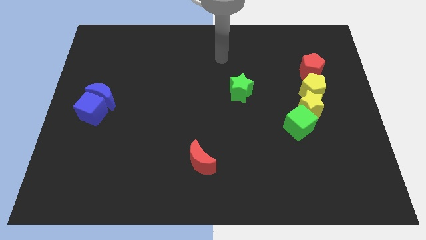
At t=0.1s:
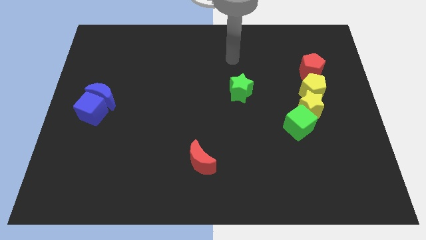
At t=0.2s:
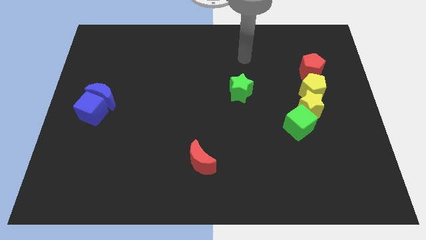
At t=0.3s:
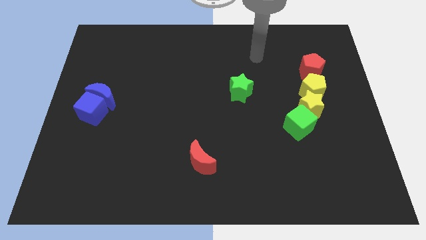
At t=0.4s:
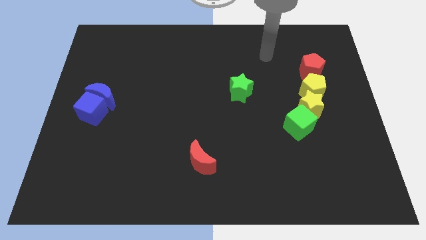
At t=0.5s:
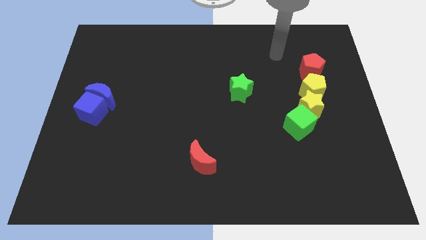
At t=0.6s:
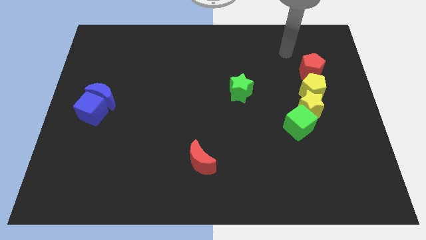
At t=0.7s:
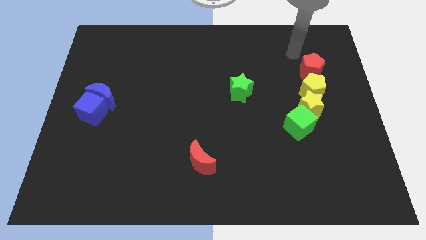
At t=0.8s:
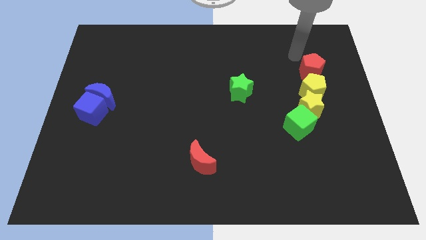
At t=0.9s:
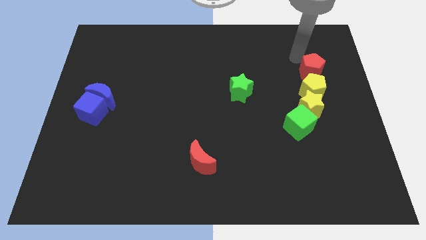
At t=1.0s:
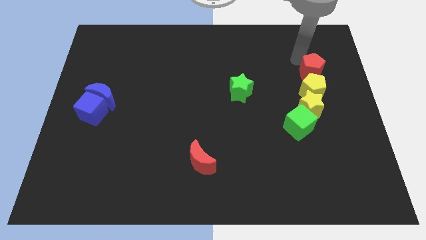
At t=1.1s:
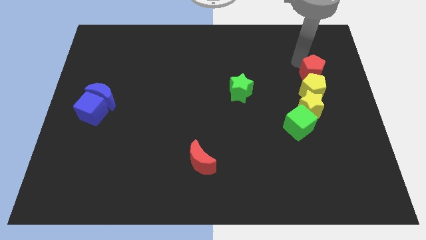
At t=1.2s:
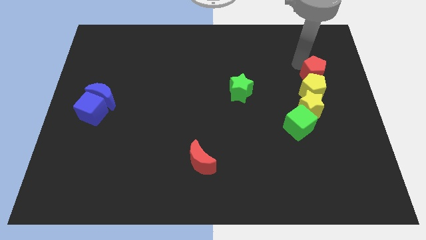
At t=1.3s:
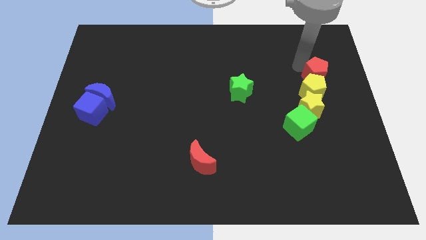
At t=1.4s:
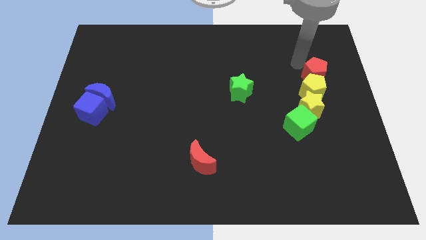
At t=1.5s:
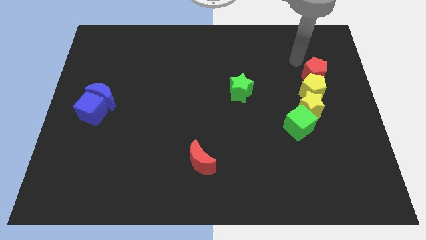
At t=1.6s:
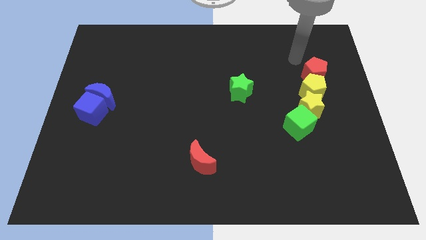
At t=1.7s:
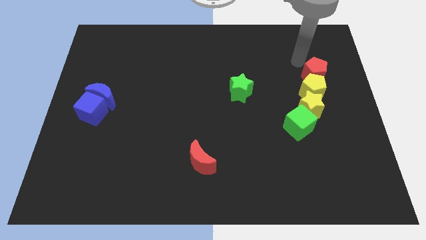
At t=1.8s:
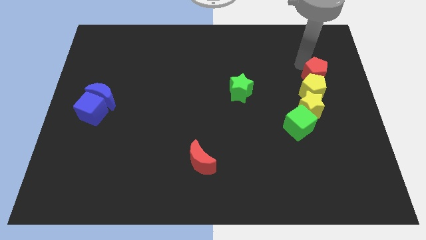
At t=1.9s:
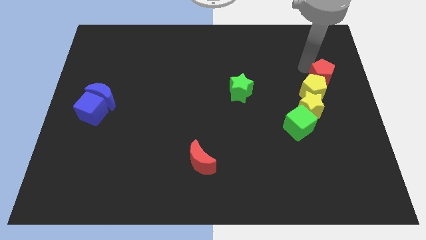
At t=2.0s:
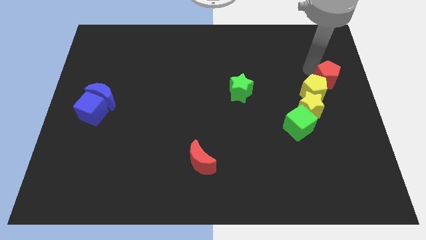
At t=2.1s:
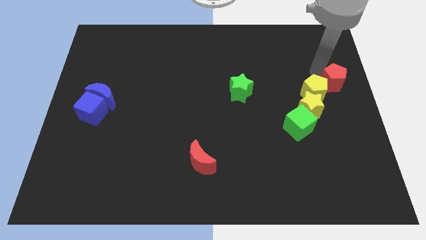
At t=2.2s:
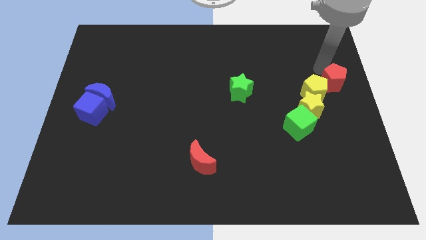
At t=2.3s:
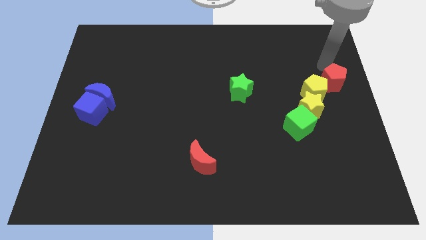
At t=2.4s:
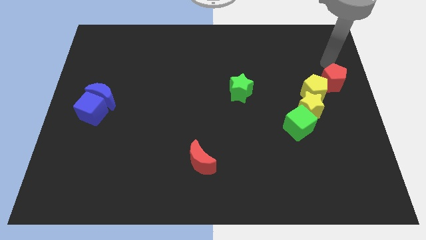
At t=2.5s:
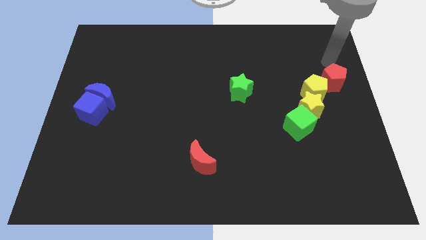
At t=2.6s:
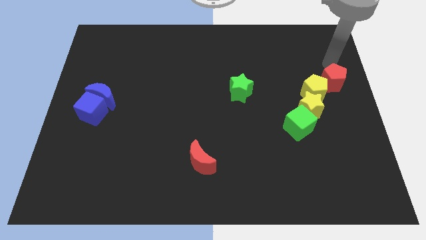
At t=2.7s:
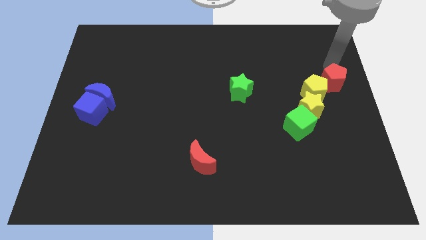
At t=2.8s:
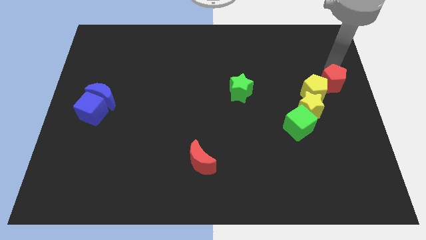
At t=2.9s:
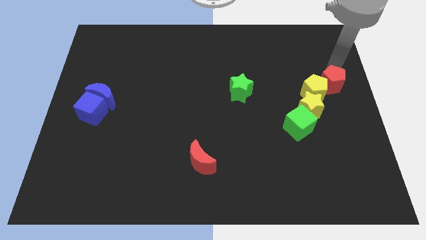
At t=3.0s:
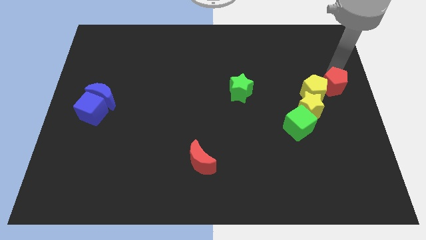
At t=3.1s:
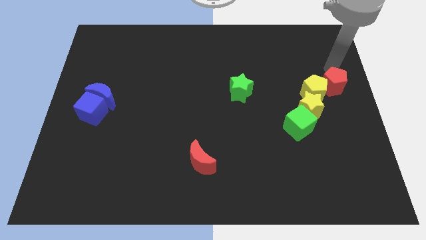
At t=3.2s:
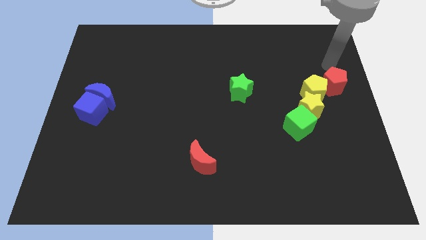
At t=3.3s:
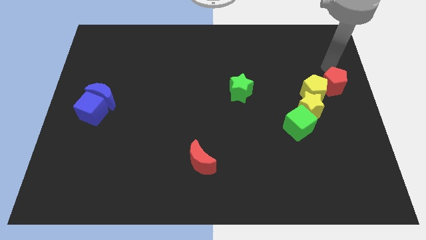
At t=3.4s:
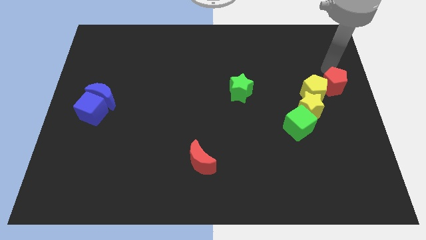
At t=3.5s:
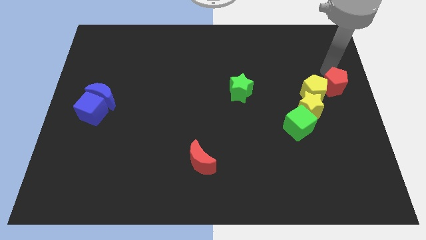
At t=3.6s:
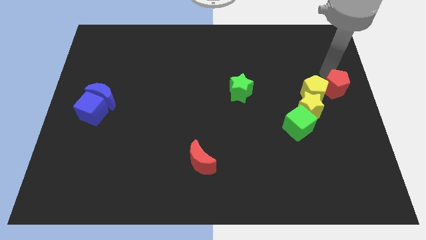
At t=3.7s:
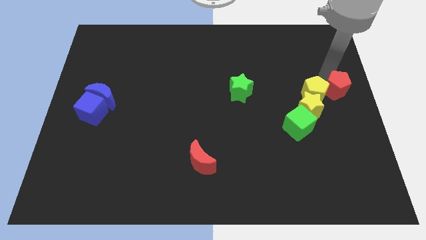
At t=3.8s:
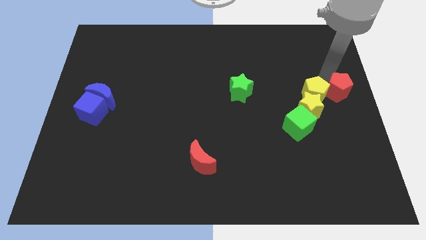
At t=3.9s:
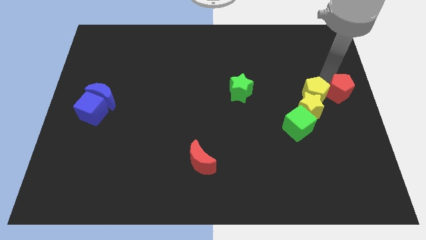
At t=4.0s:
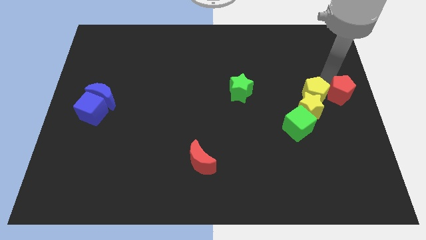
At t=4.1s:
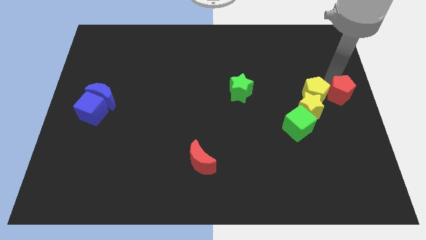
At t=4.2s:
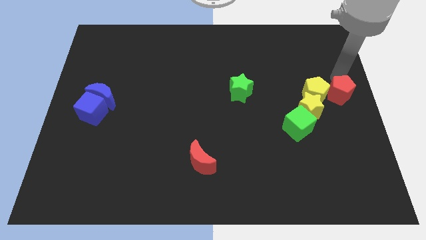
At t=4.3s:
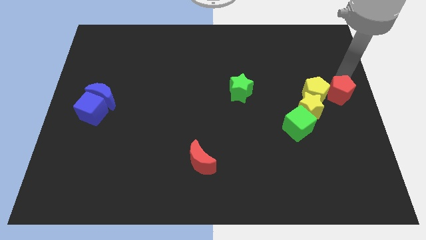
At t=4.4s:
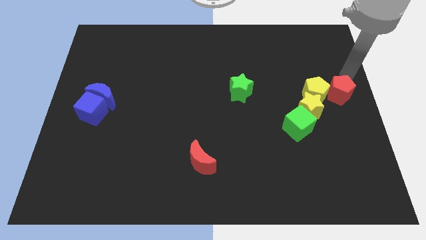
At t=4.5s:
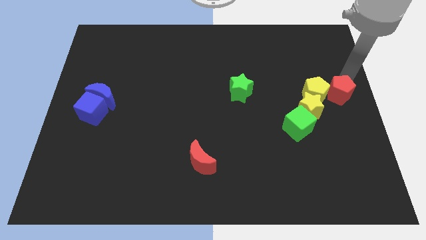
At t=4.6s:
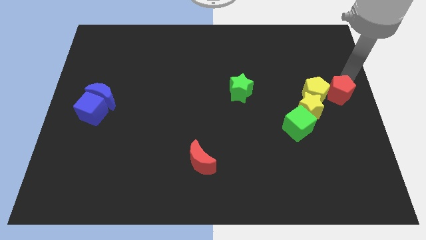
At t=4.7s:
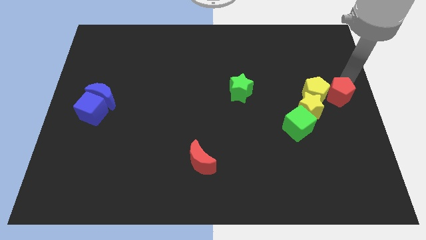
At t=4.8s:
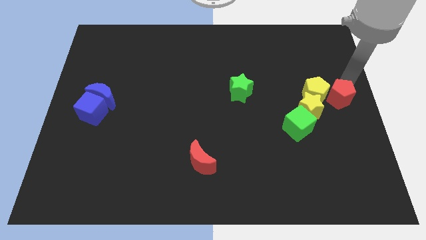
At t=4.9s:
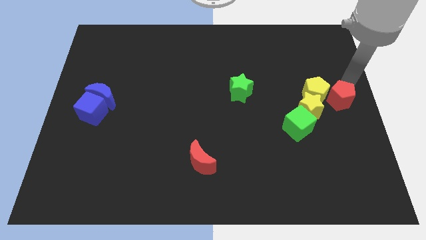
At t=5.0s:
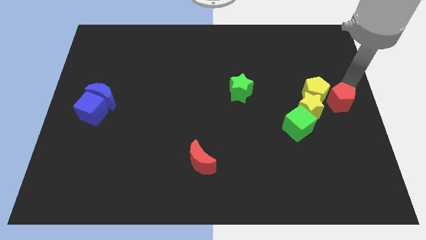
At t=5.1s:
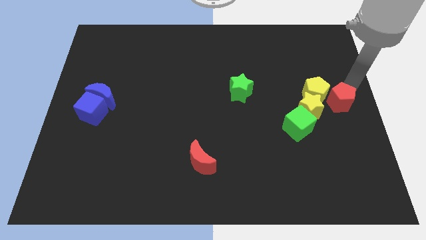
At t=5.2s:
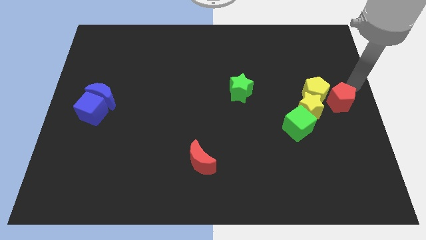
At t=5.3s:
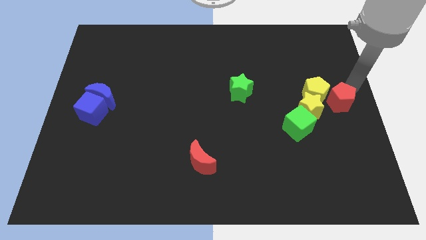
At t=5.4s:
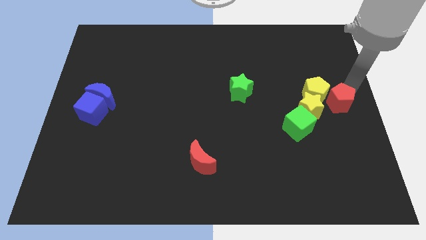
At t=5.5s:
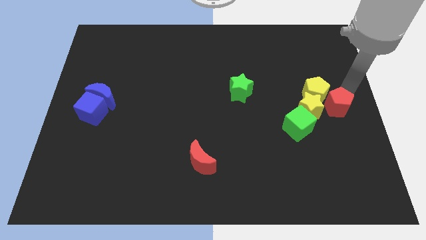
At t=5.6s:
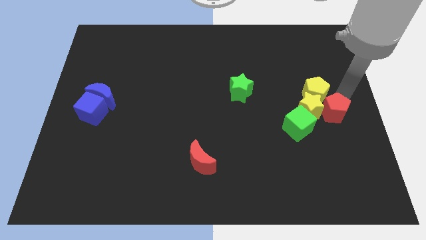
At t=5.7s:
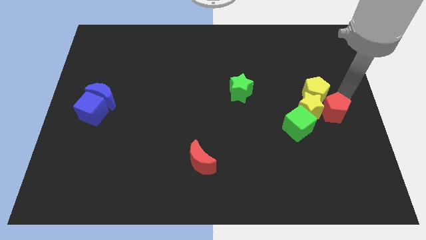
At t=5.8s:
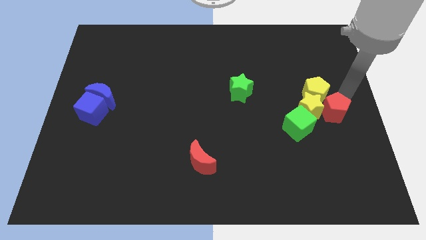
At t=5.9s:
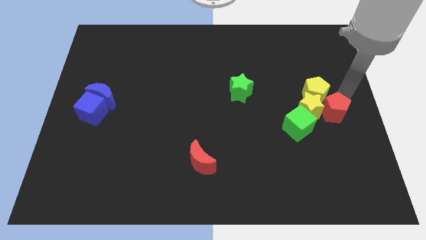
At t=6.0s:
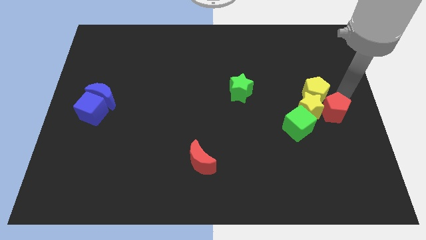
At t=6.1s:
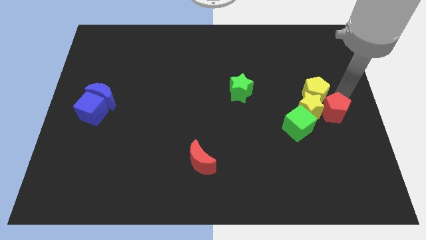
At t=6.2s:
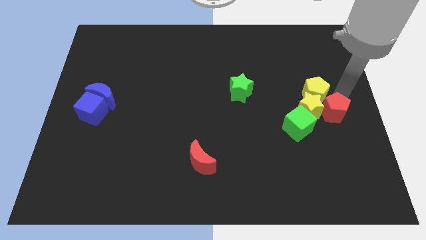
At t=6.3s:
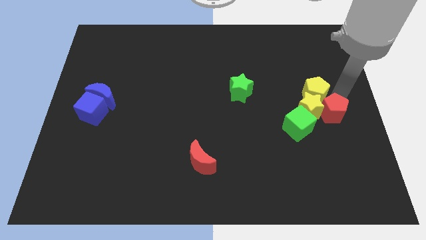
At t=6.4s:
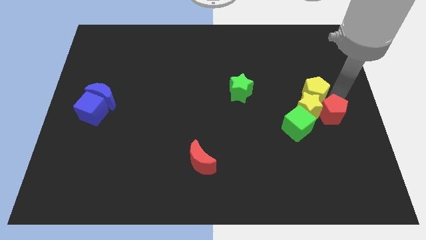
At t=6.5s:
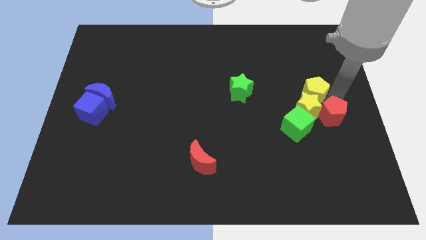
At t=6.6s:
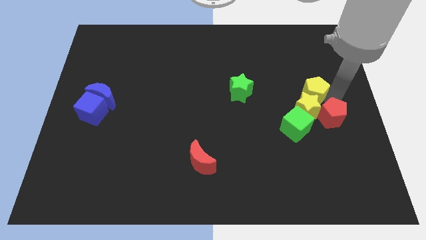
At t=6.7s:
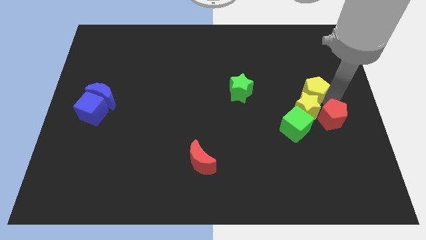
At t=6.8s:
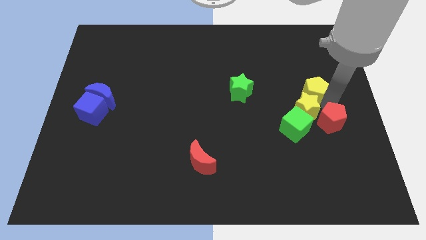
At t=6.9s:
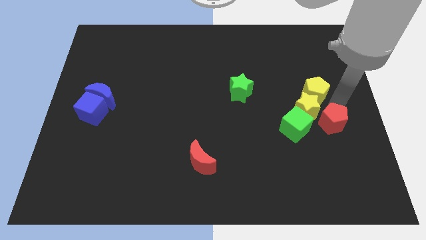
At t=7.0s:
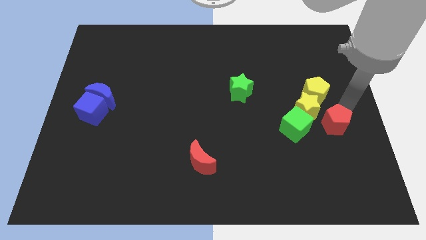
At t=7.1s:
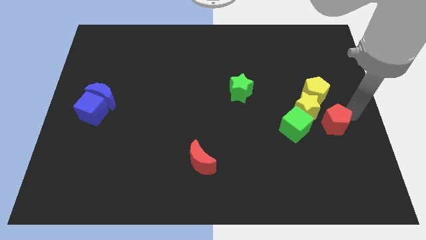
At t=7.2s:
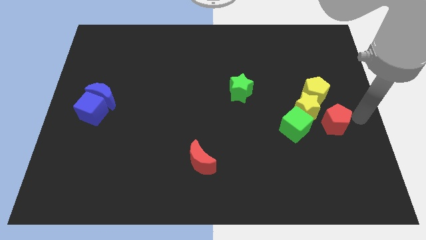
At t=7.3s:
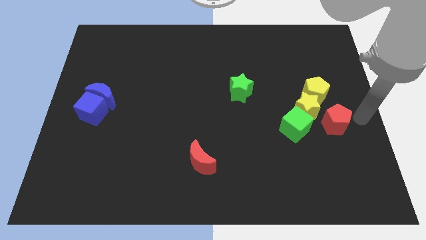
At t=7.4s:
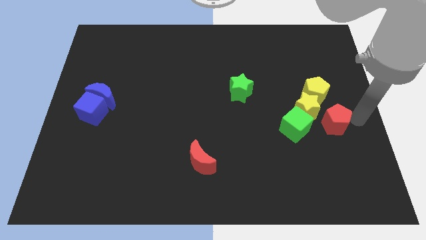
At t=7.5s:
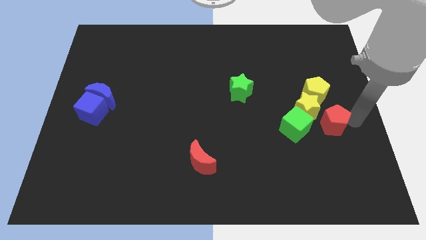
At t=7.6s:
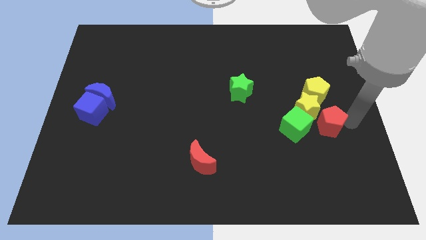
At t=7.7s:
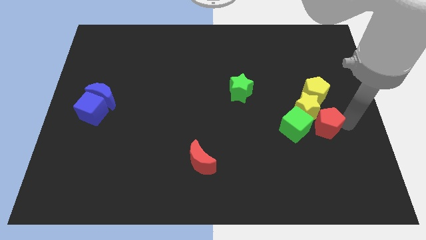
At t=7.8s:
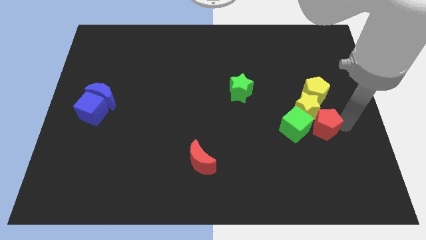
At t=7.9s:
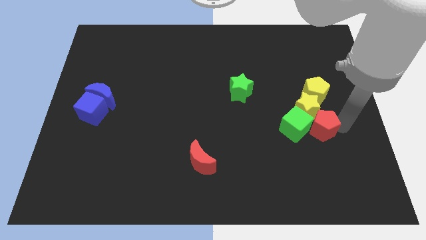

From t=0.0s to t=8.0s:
move the red pentagon to the green cube
